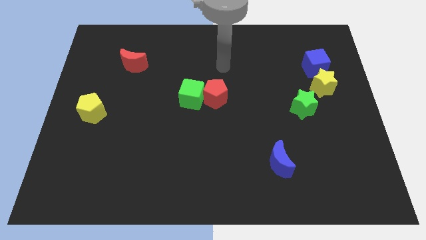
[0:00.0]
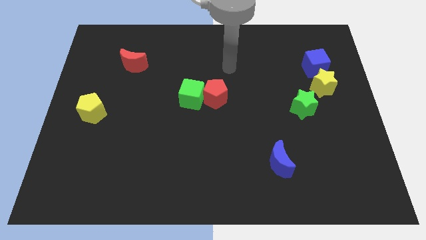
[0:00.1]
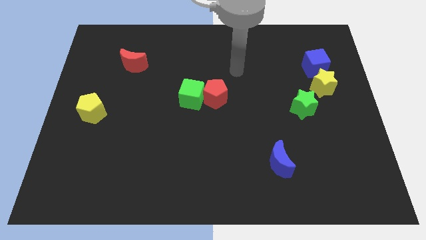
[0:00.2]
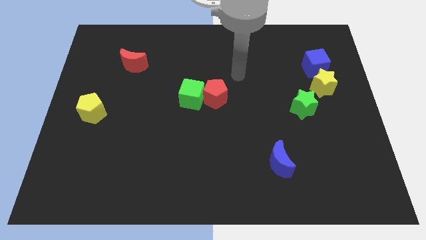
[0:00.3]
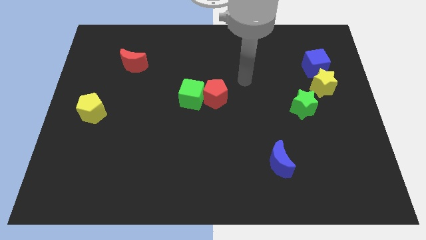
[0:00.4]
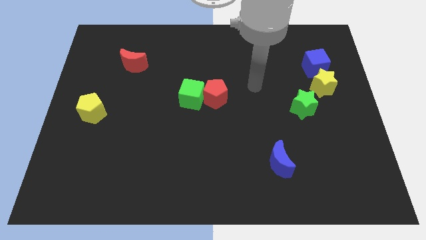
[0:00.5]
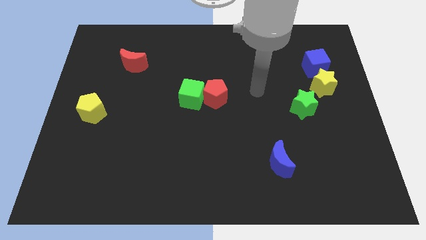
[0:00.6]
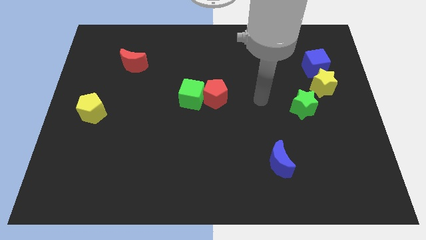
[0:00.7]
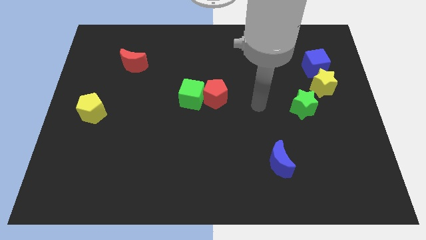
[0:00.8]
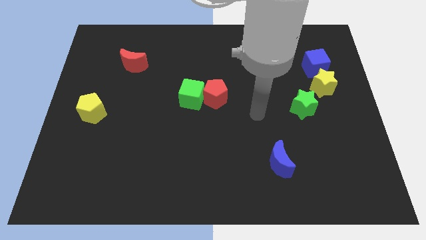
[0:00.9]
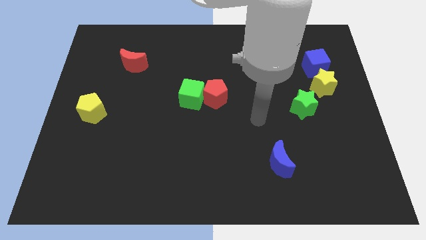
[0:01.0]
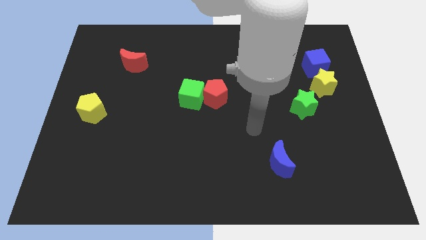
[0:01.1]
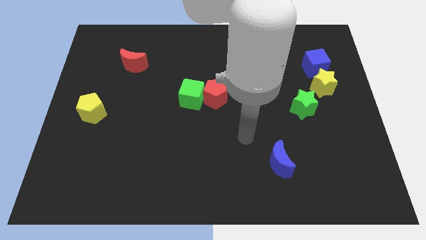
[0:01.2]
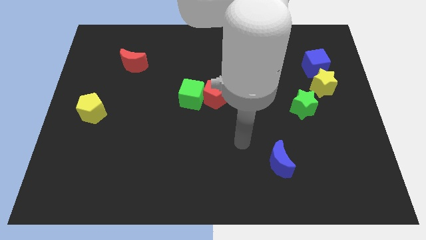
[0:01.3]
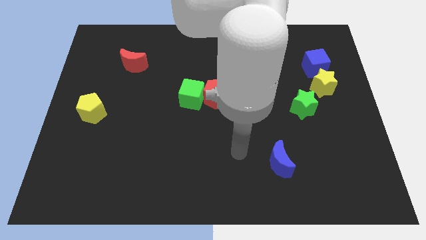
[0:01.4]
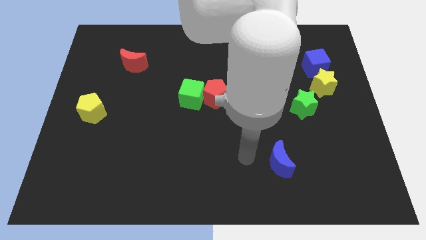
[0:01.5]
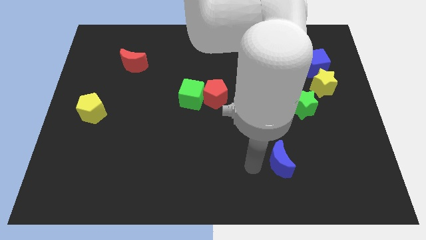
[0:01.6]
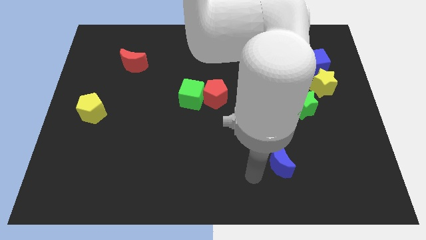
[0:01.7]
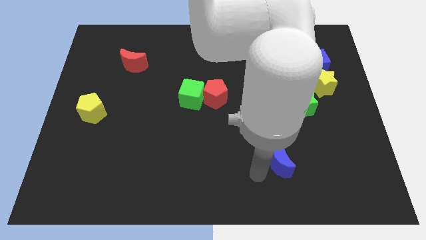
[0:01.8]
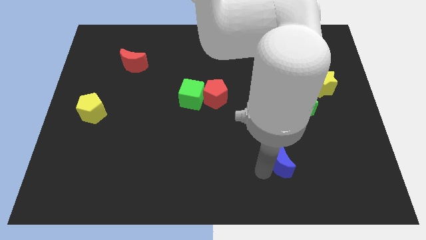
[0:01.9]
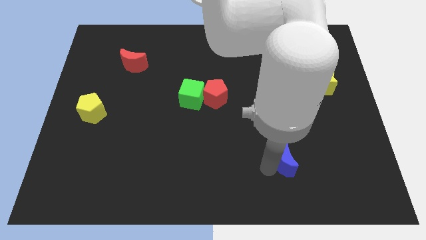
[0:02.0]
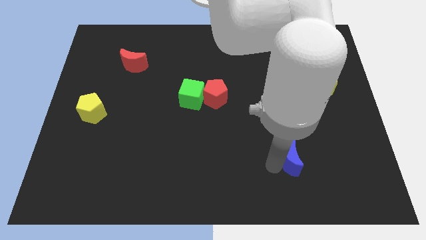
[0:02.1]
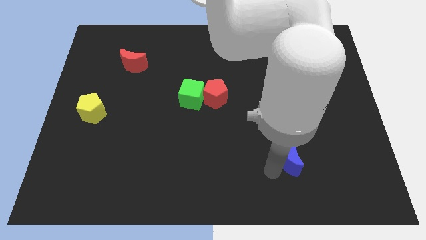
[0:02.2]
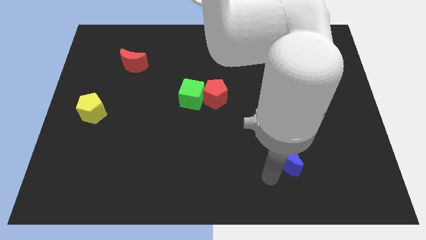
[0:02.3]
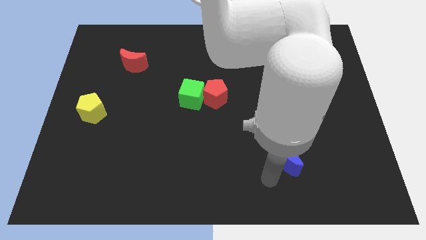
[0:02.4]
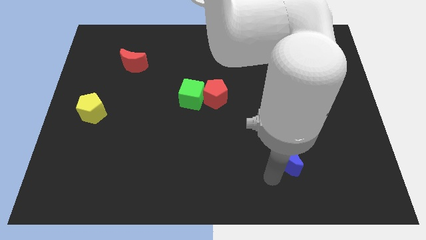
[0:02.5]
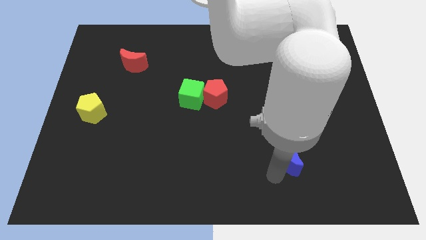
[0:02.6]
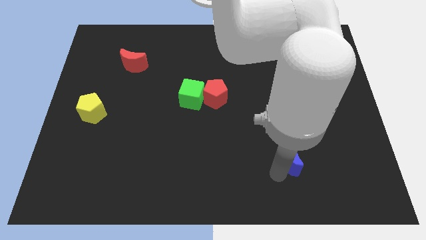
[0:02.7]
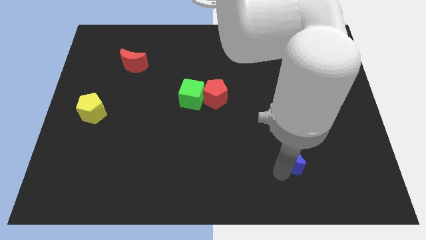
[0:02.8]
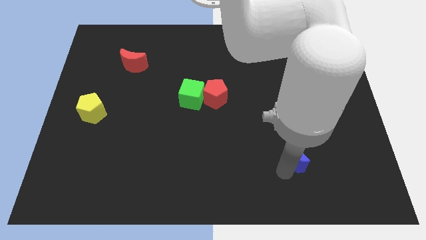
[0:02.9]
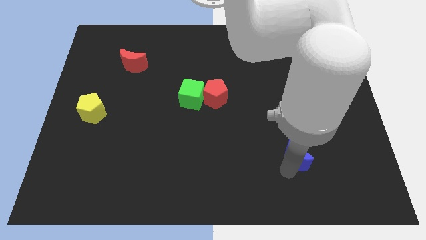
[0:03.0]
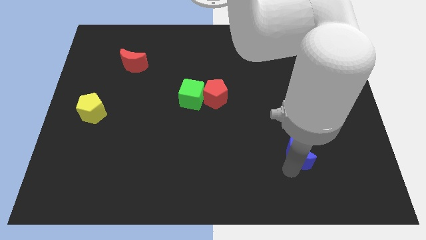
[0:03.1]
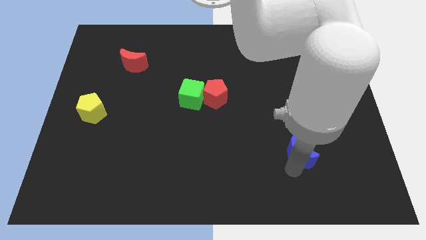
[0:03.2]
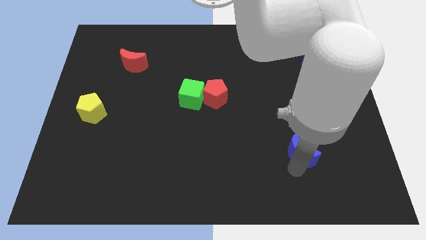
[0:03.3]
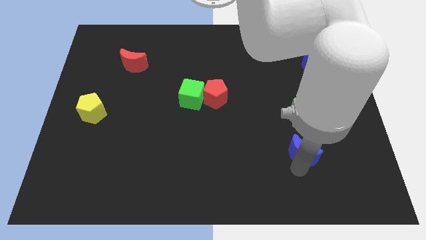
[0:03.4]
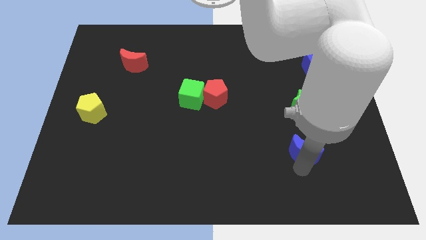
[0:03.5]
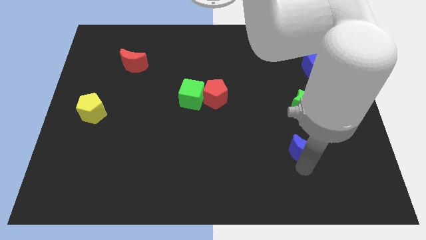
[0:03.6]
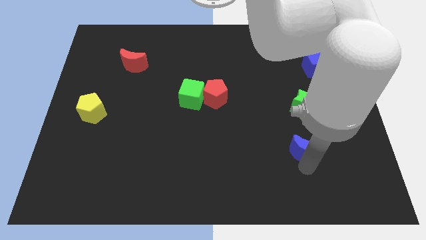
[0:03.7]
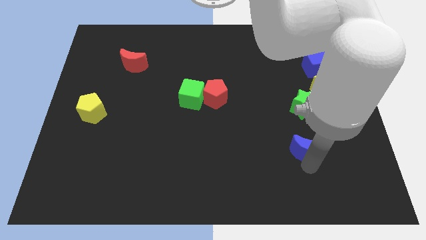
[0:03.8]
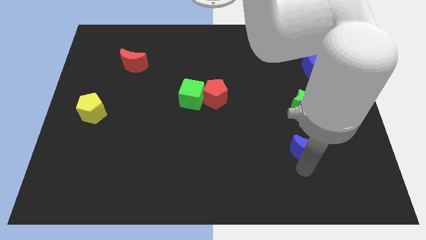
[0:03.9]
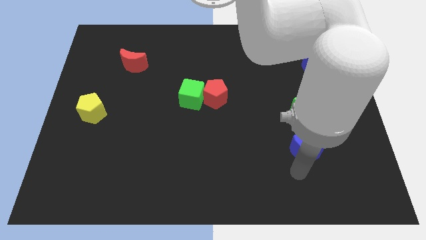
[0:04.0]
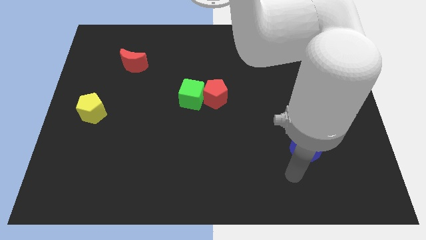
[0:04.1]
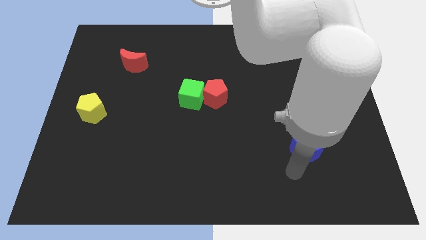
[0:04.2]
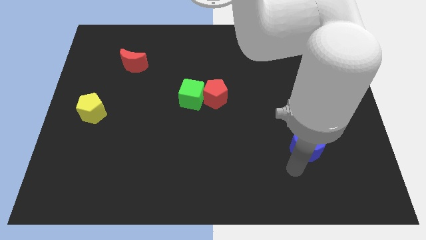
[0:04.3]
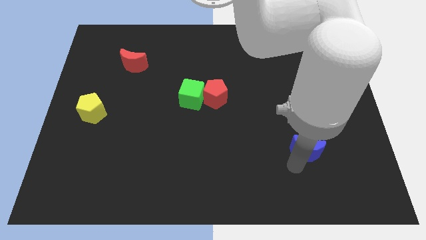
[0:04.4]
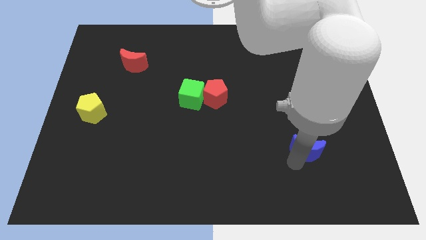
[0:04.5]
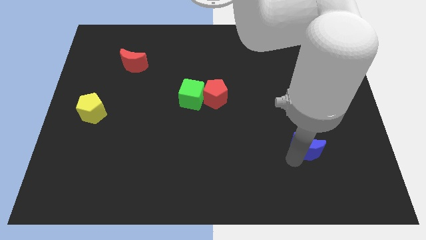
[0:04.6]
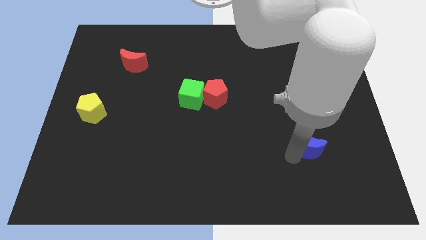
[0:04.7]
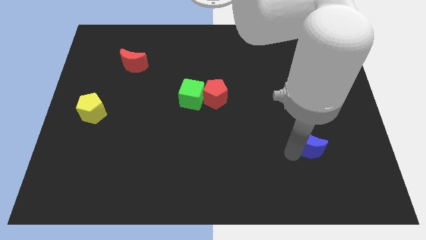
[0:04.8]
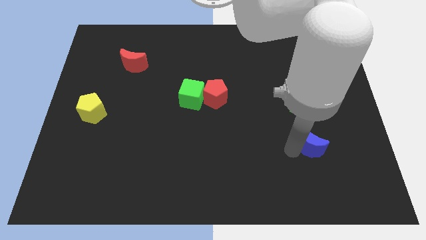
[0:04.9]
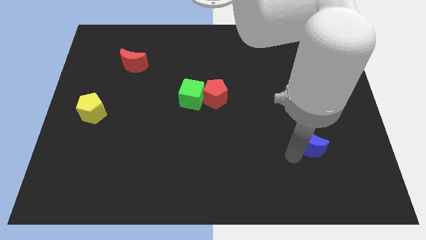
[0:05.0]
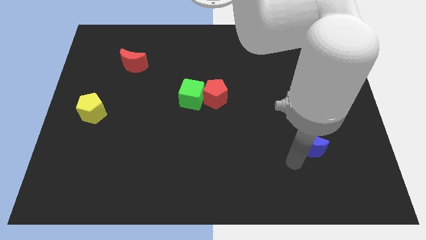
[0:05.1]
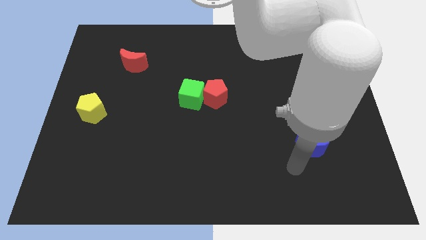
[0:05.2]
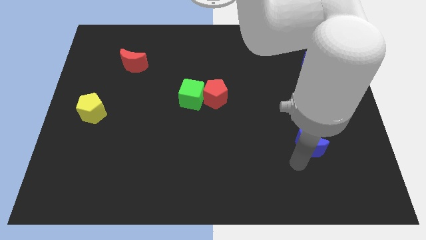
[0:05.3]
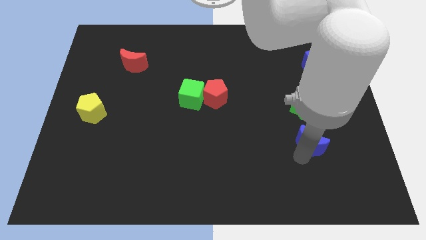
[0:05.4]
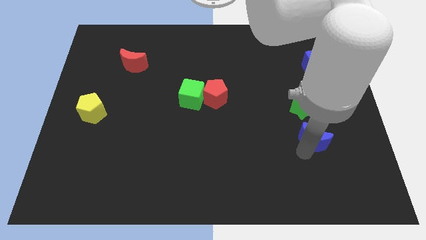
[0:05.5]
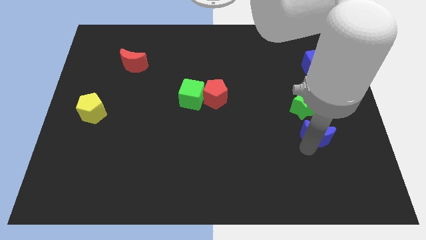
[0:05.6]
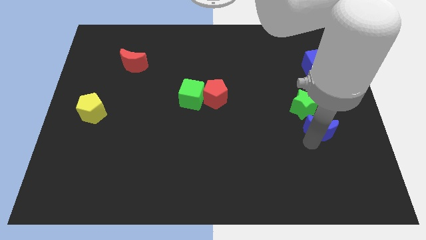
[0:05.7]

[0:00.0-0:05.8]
move the blue moon below the yellow star

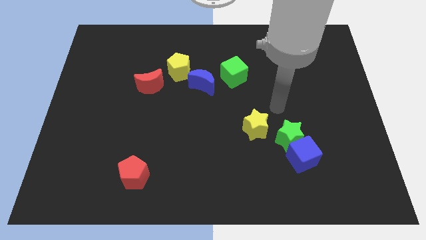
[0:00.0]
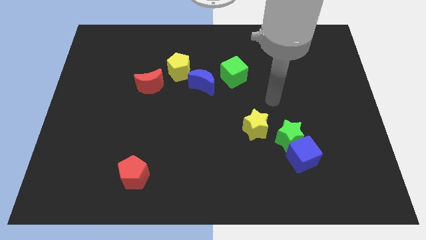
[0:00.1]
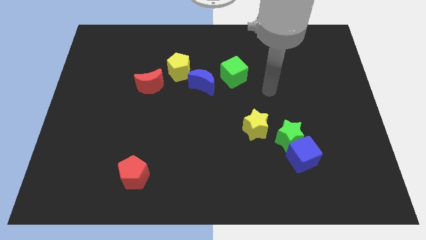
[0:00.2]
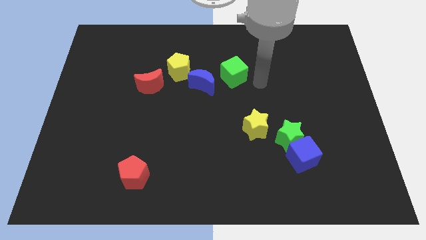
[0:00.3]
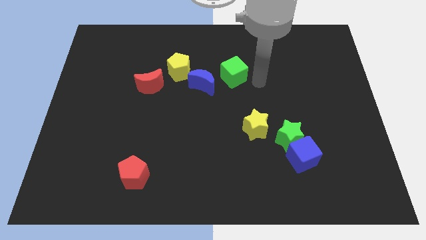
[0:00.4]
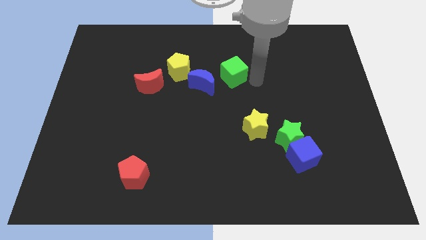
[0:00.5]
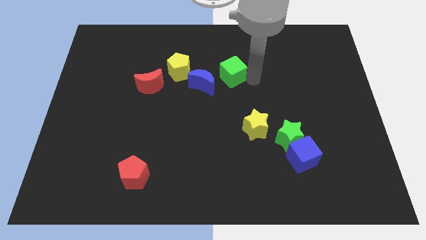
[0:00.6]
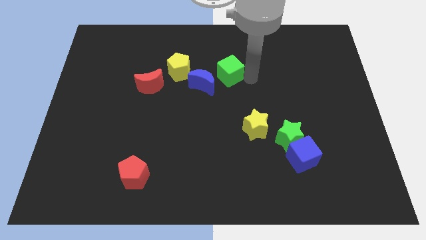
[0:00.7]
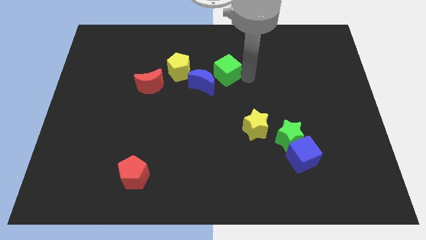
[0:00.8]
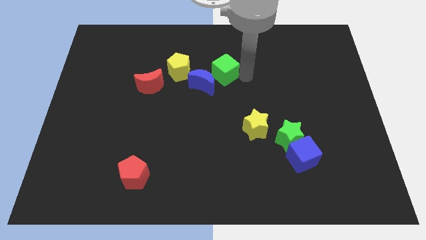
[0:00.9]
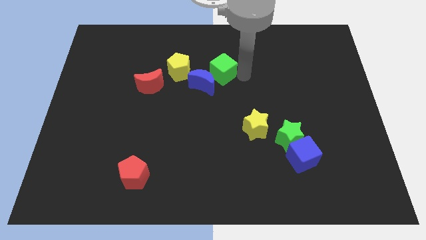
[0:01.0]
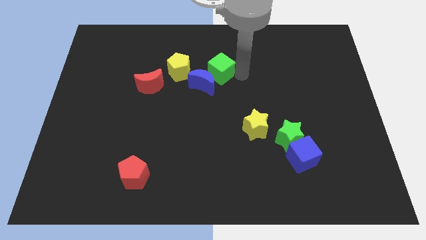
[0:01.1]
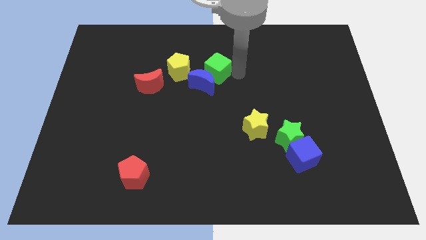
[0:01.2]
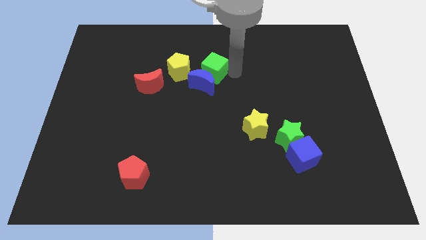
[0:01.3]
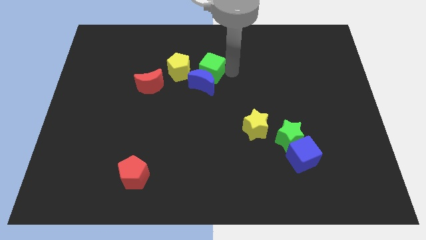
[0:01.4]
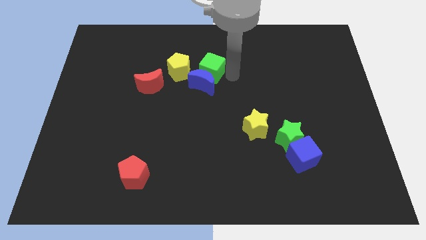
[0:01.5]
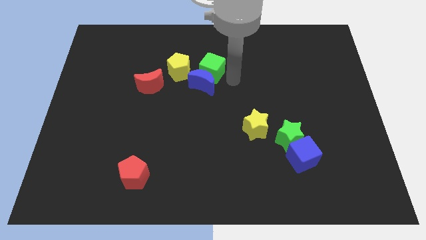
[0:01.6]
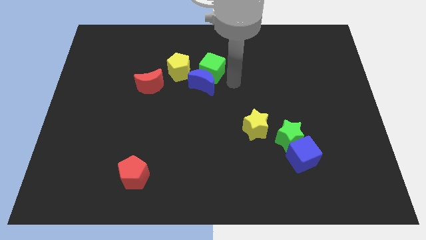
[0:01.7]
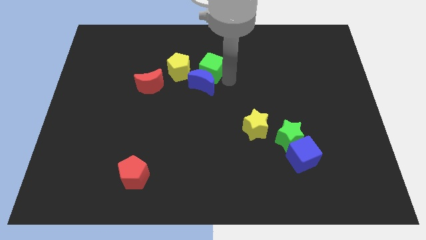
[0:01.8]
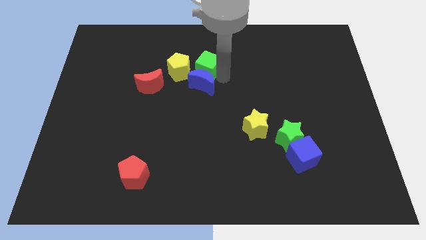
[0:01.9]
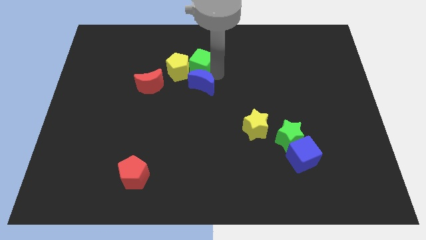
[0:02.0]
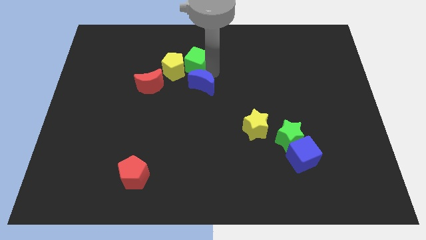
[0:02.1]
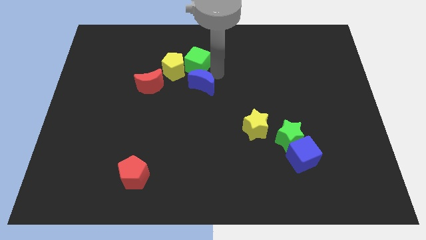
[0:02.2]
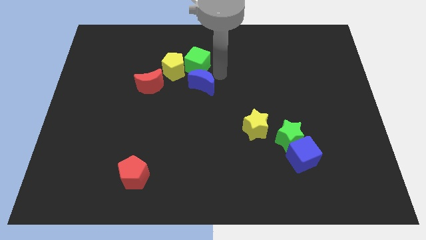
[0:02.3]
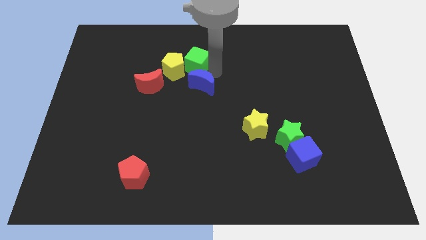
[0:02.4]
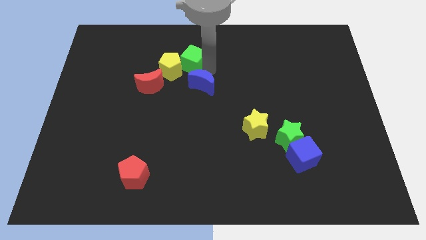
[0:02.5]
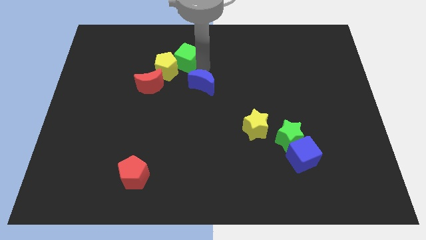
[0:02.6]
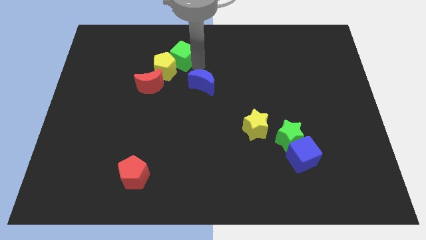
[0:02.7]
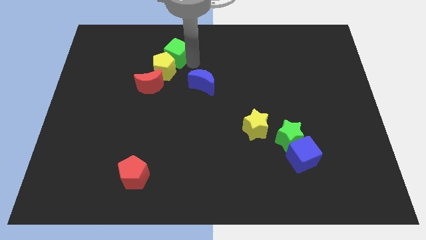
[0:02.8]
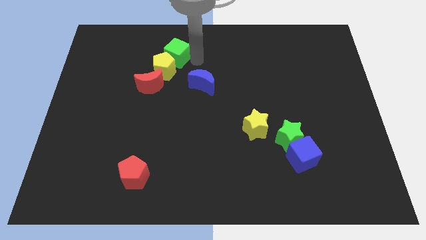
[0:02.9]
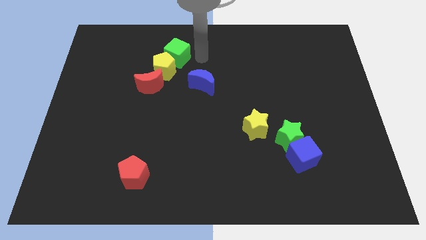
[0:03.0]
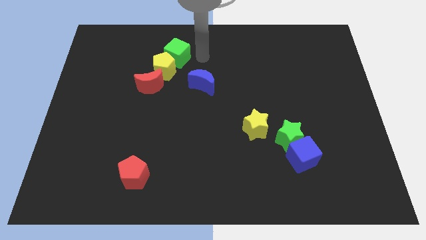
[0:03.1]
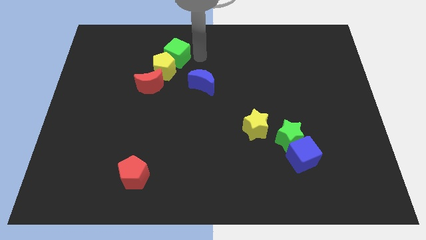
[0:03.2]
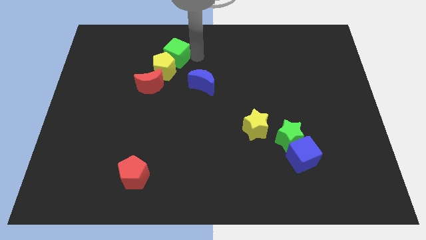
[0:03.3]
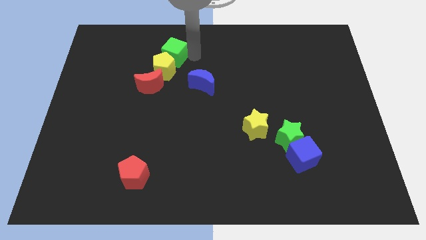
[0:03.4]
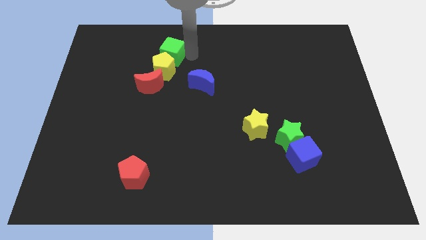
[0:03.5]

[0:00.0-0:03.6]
push the green cube to the top side of the red moon
